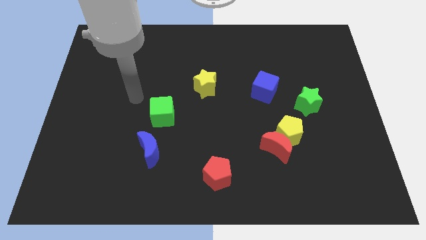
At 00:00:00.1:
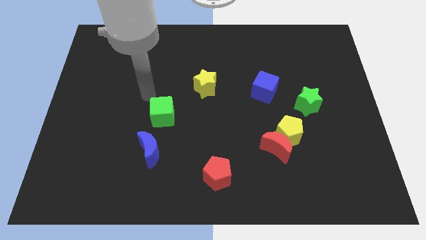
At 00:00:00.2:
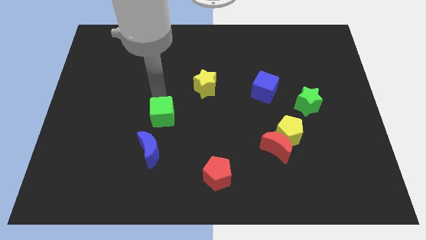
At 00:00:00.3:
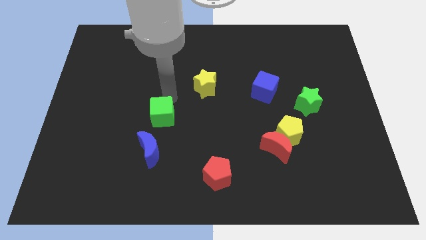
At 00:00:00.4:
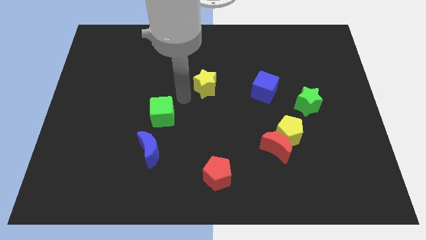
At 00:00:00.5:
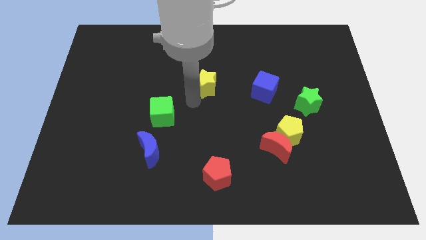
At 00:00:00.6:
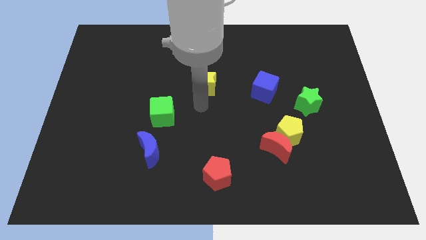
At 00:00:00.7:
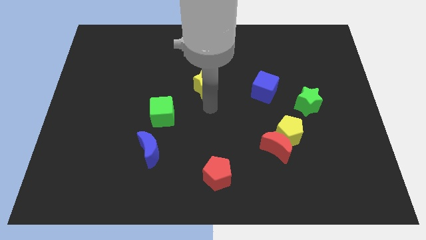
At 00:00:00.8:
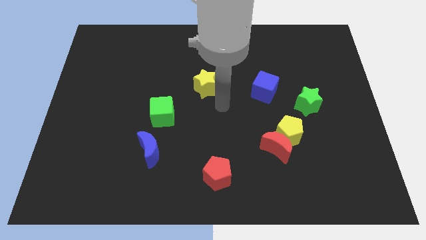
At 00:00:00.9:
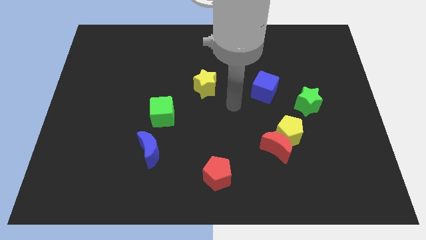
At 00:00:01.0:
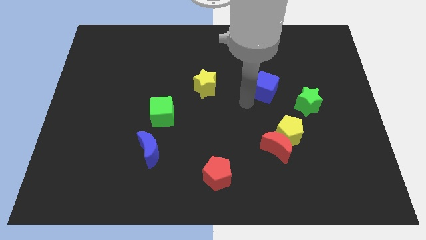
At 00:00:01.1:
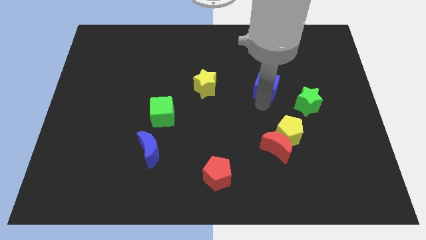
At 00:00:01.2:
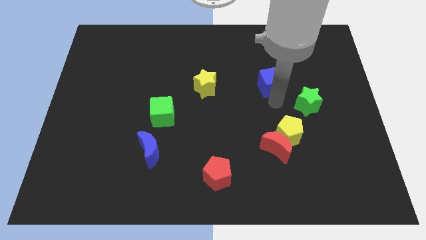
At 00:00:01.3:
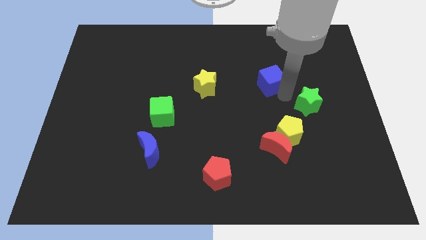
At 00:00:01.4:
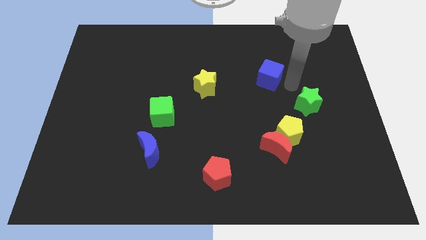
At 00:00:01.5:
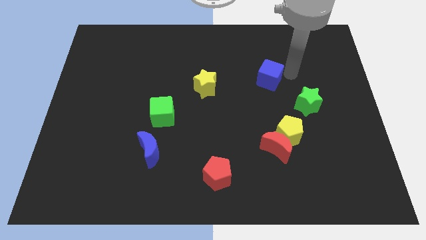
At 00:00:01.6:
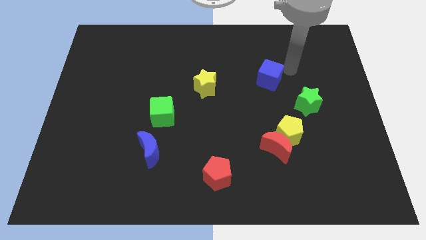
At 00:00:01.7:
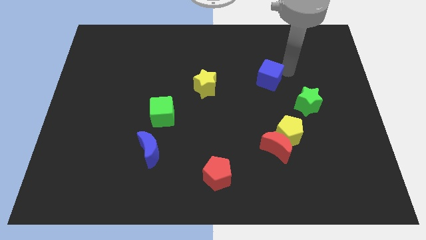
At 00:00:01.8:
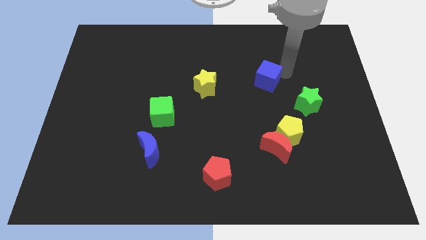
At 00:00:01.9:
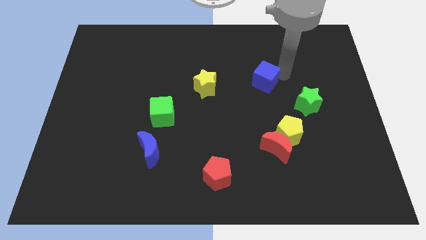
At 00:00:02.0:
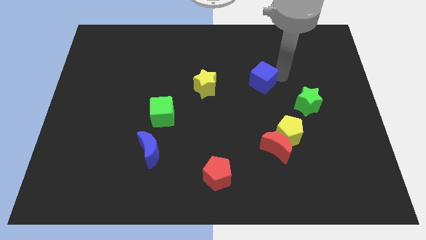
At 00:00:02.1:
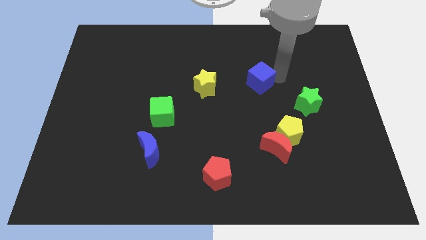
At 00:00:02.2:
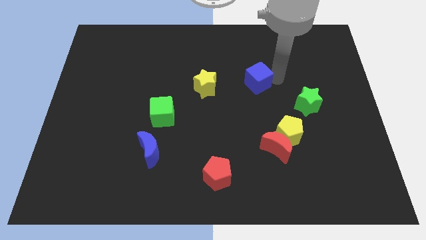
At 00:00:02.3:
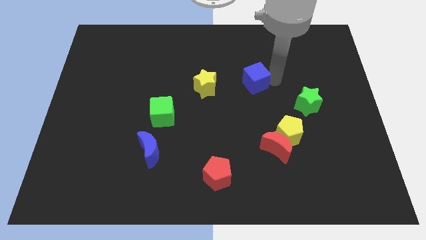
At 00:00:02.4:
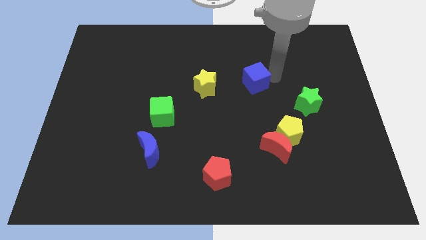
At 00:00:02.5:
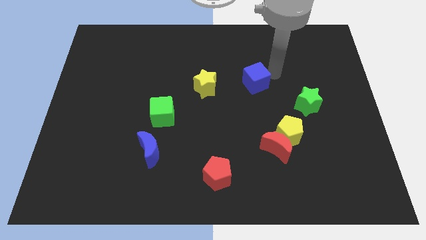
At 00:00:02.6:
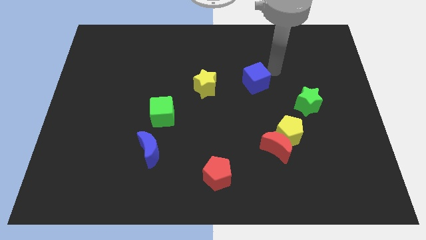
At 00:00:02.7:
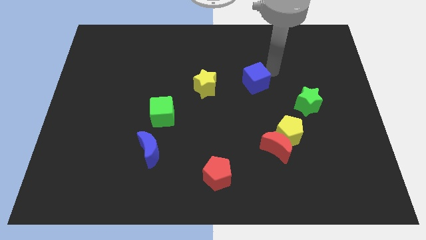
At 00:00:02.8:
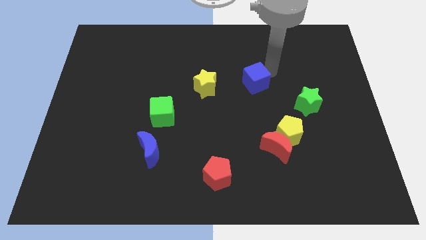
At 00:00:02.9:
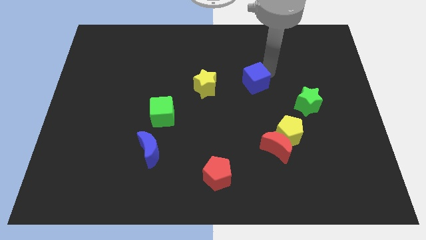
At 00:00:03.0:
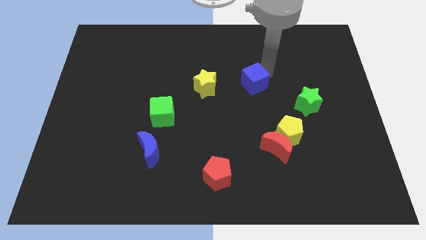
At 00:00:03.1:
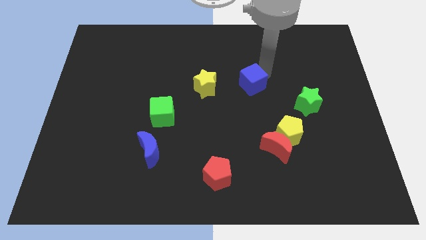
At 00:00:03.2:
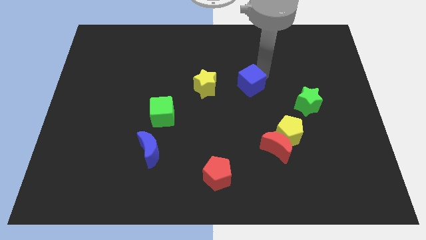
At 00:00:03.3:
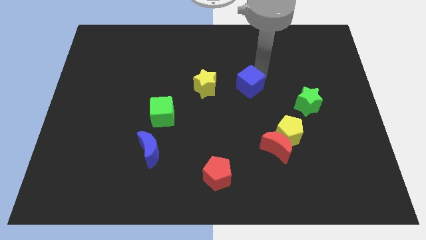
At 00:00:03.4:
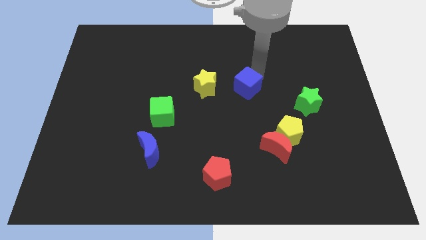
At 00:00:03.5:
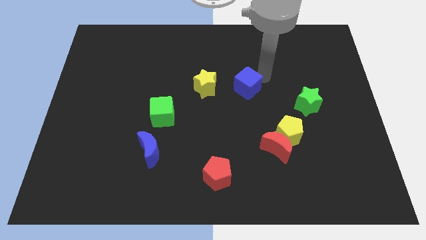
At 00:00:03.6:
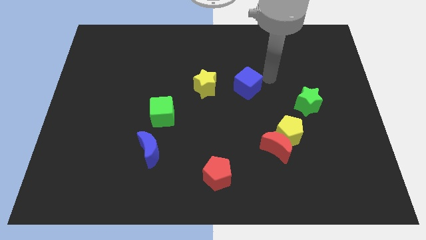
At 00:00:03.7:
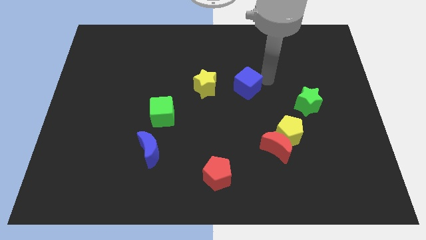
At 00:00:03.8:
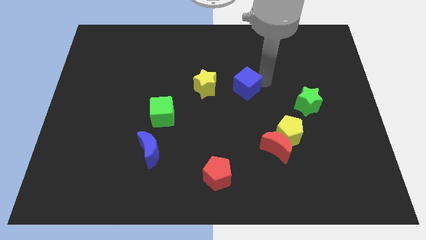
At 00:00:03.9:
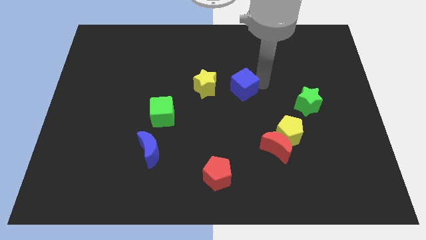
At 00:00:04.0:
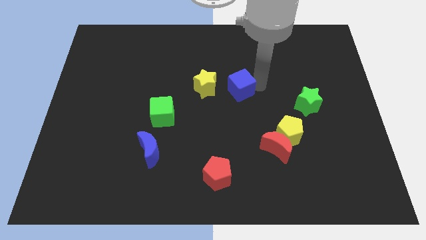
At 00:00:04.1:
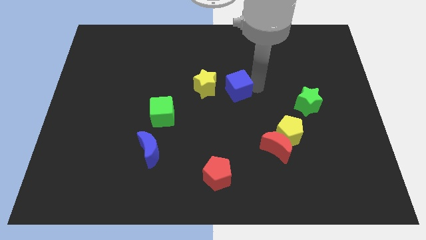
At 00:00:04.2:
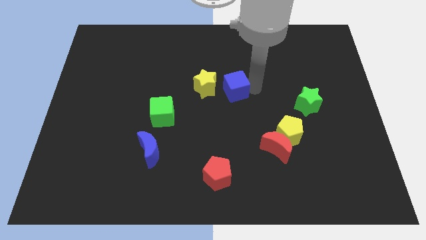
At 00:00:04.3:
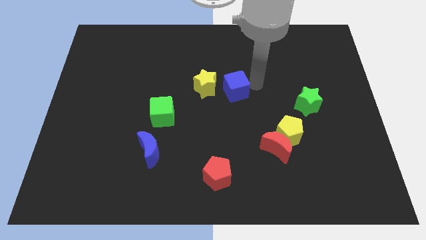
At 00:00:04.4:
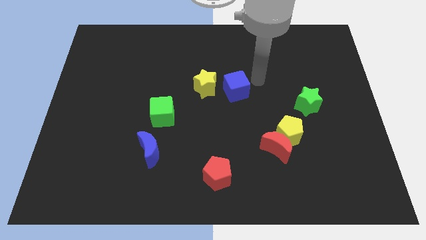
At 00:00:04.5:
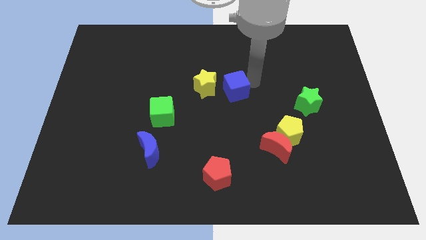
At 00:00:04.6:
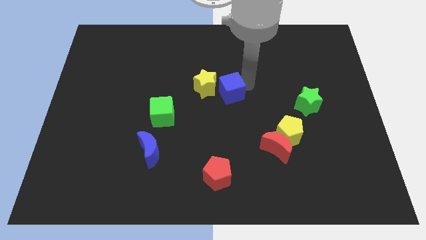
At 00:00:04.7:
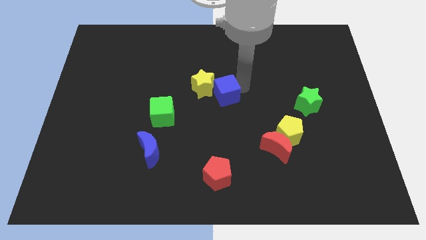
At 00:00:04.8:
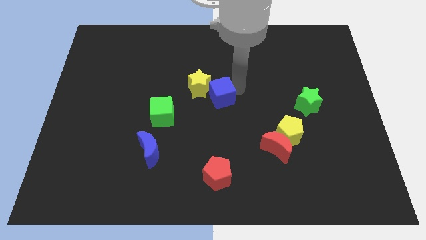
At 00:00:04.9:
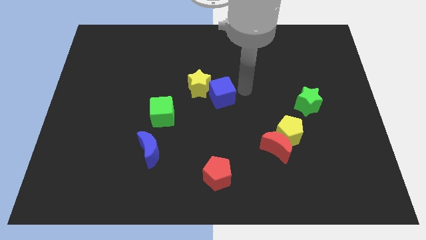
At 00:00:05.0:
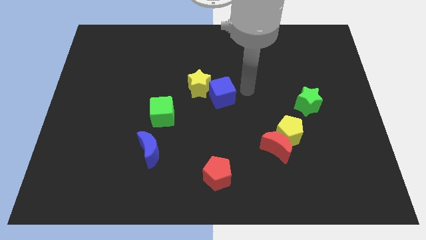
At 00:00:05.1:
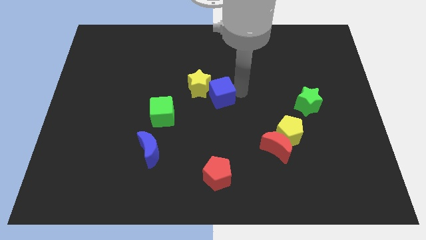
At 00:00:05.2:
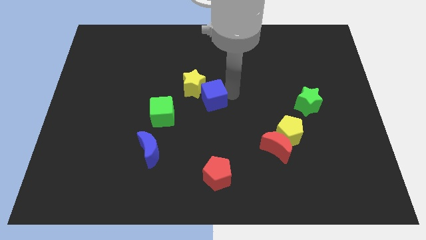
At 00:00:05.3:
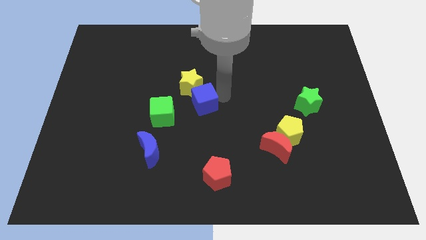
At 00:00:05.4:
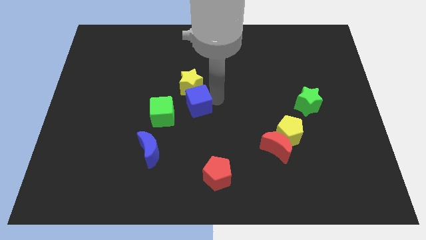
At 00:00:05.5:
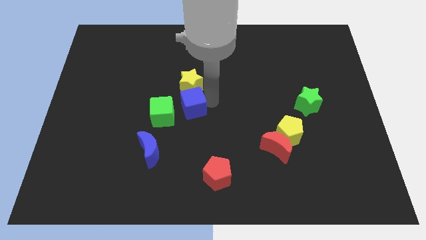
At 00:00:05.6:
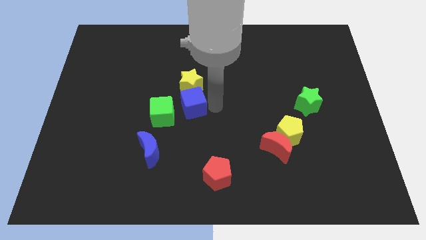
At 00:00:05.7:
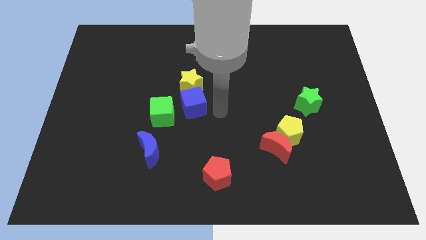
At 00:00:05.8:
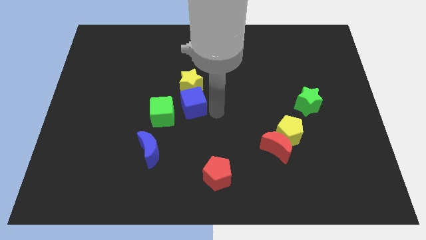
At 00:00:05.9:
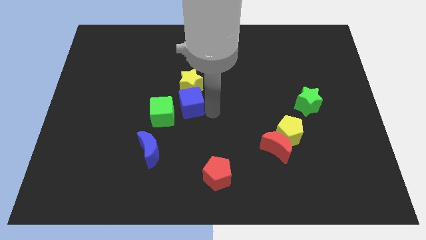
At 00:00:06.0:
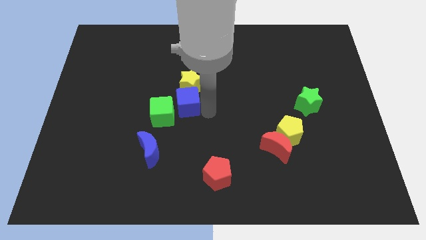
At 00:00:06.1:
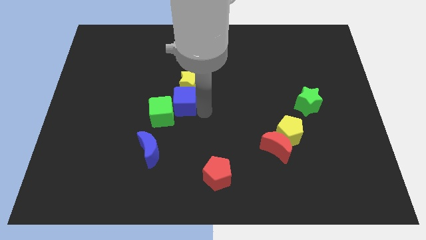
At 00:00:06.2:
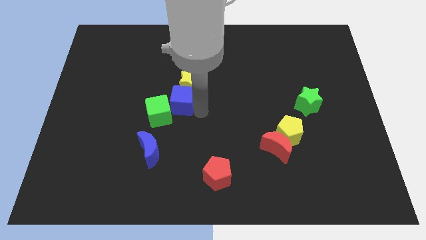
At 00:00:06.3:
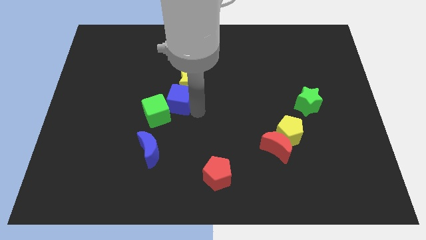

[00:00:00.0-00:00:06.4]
move the blue cube left

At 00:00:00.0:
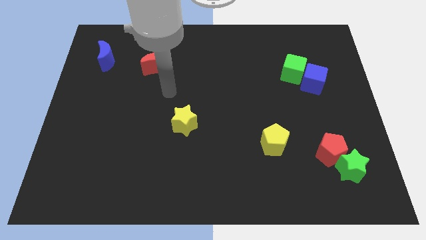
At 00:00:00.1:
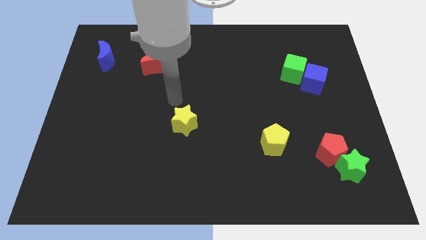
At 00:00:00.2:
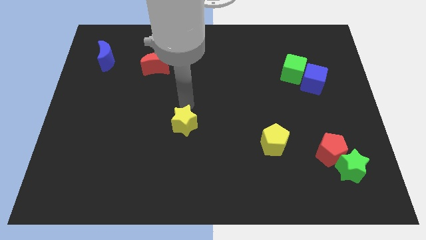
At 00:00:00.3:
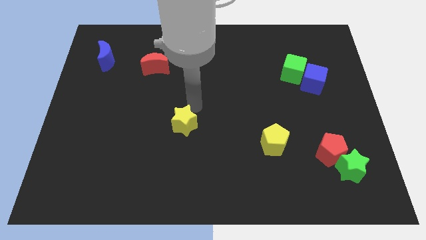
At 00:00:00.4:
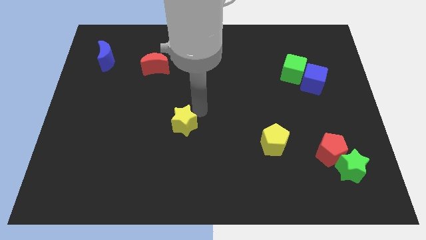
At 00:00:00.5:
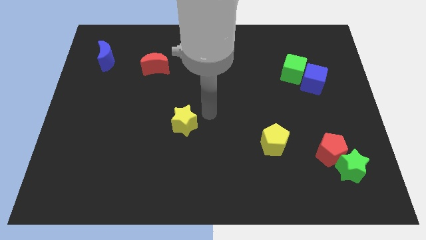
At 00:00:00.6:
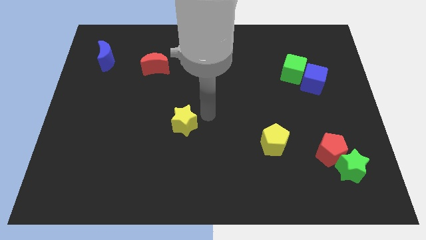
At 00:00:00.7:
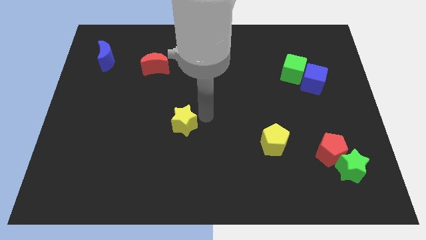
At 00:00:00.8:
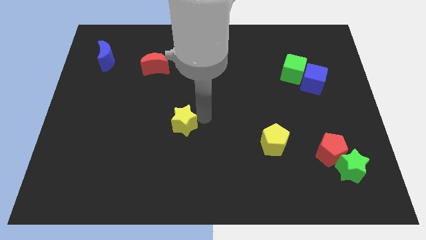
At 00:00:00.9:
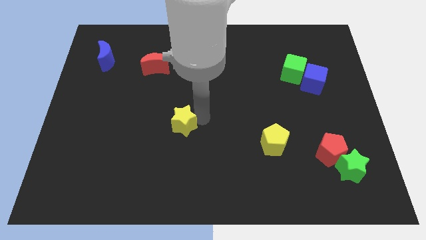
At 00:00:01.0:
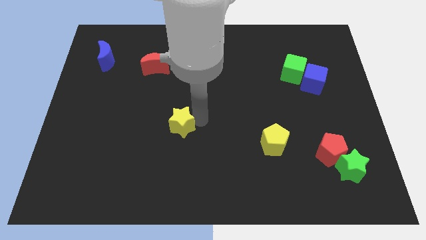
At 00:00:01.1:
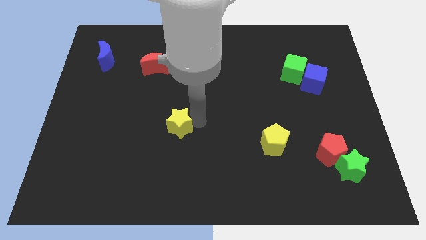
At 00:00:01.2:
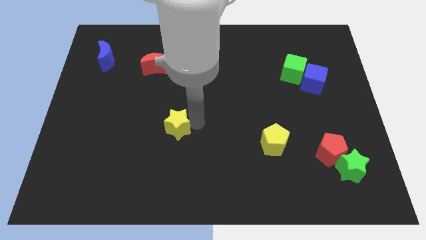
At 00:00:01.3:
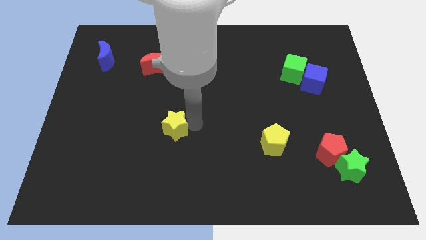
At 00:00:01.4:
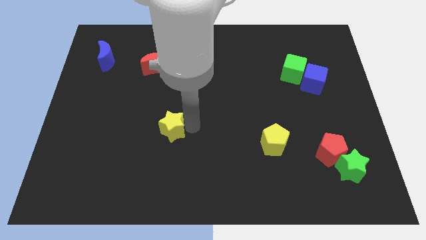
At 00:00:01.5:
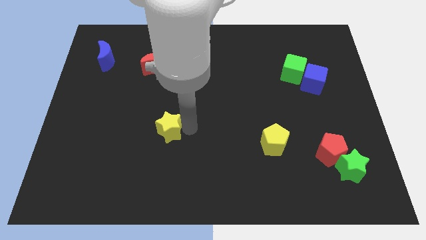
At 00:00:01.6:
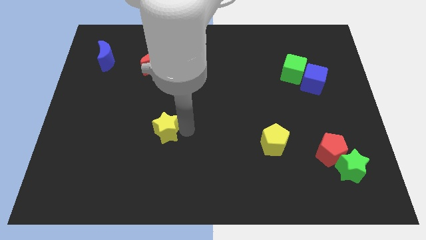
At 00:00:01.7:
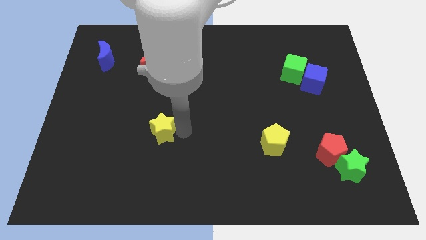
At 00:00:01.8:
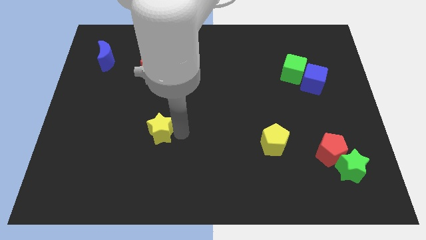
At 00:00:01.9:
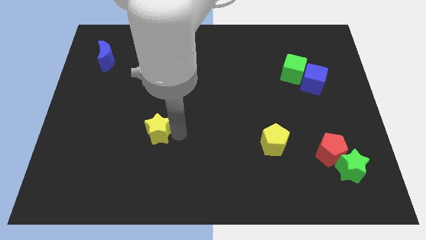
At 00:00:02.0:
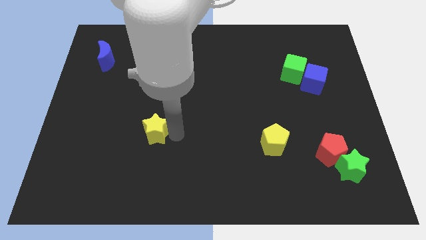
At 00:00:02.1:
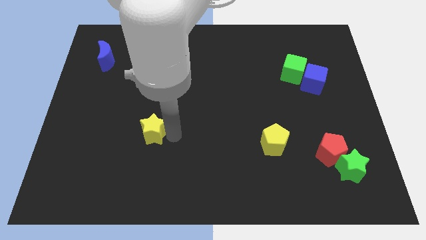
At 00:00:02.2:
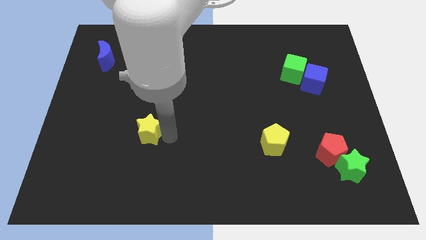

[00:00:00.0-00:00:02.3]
slide the yellow star a little to the left
